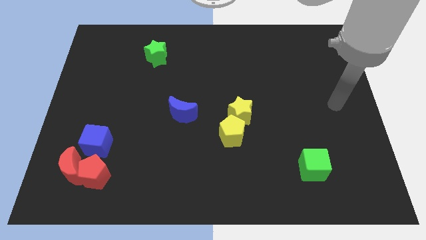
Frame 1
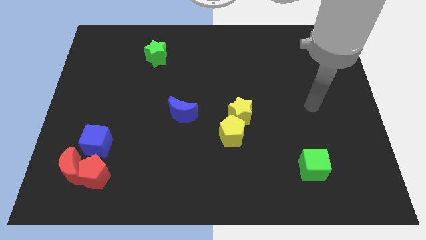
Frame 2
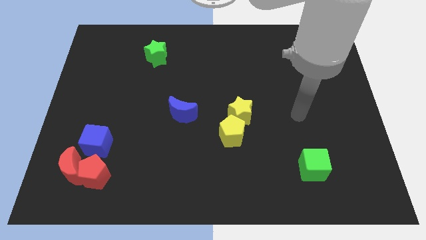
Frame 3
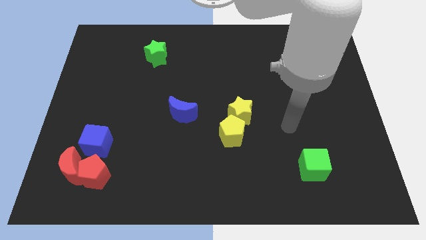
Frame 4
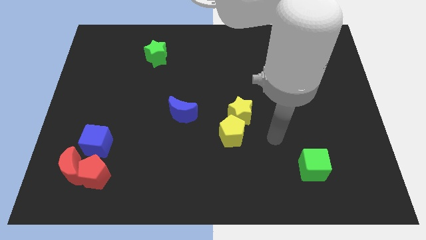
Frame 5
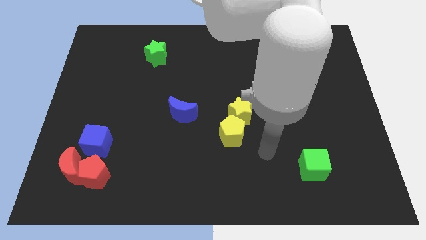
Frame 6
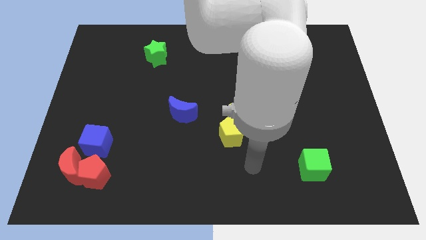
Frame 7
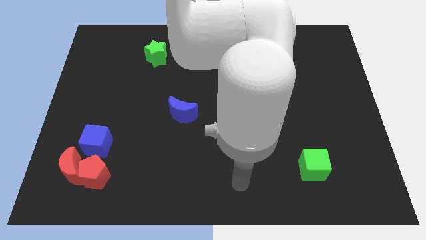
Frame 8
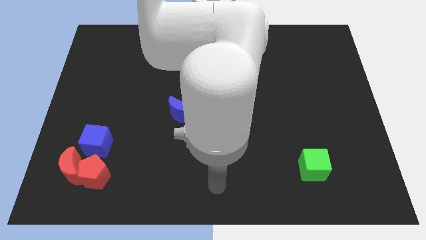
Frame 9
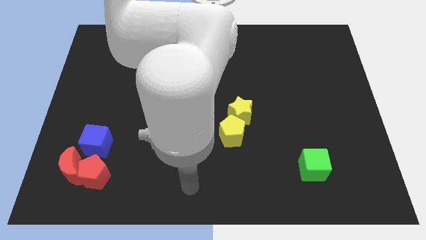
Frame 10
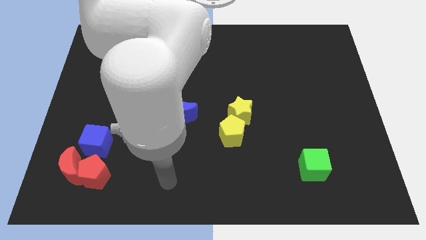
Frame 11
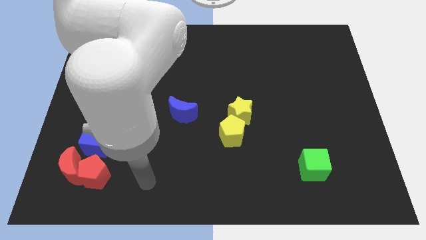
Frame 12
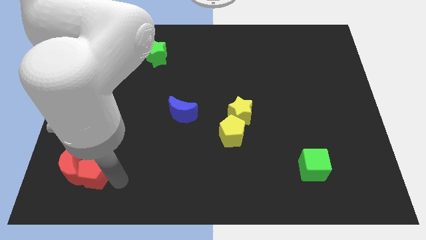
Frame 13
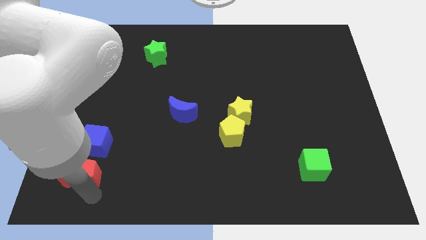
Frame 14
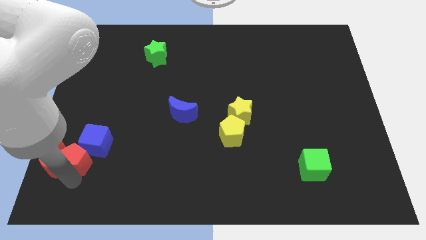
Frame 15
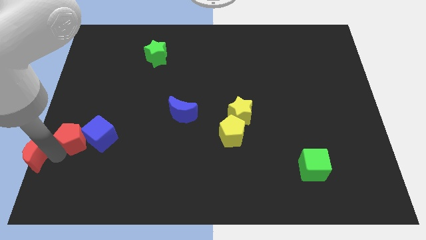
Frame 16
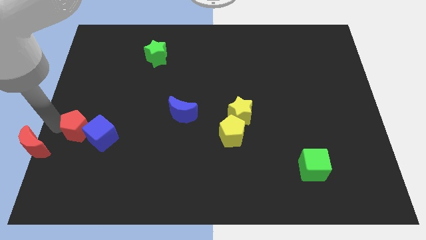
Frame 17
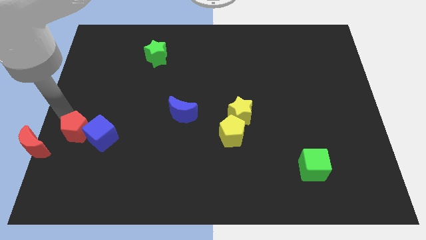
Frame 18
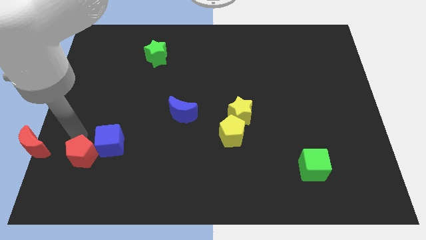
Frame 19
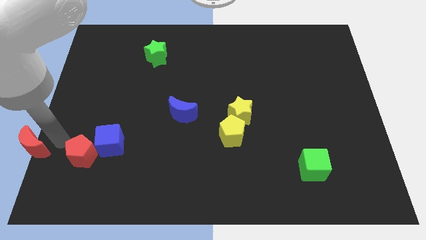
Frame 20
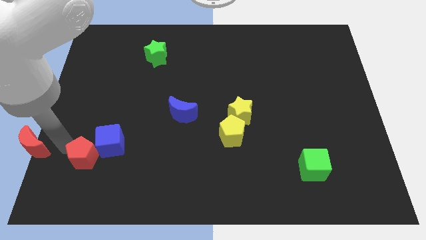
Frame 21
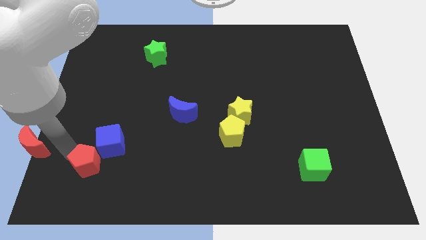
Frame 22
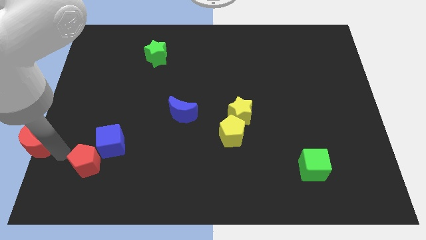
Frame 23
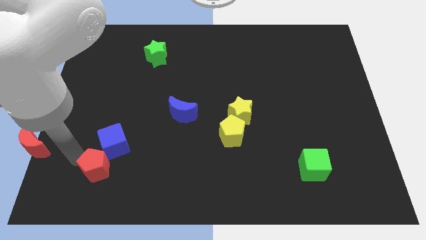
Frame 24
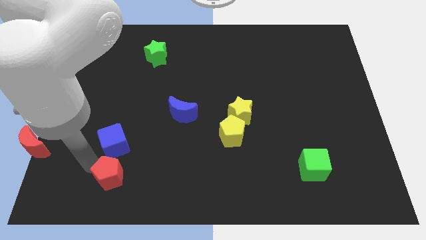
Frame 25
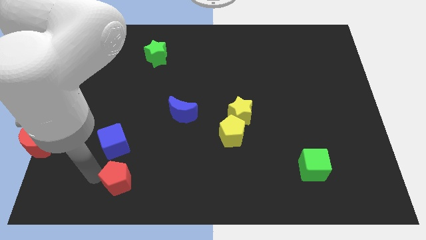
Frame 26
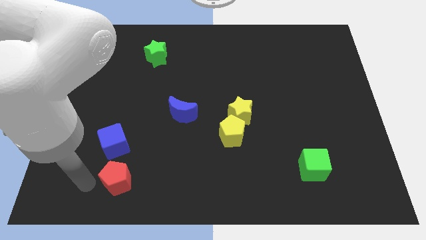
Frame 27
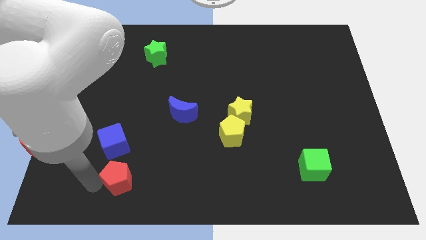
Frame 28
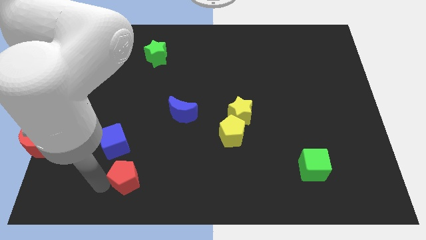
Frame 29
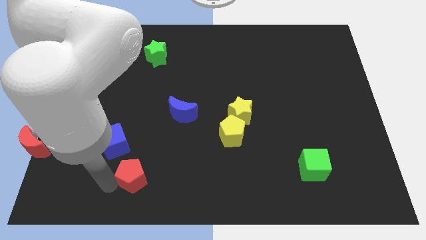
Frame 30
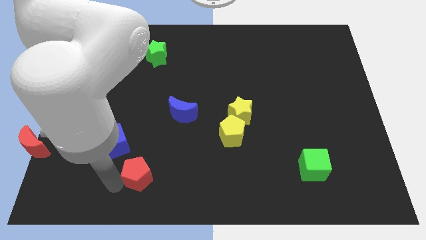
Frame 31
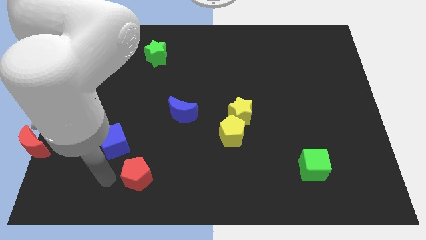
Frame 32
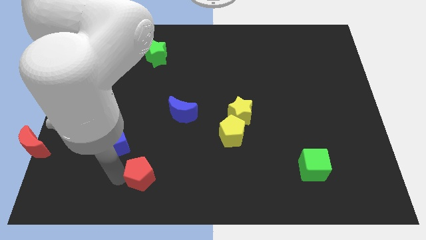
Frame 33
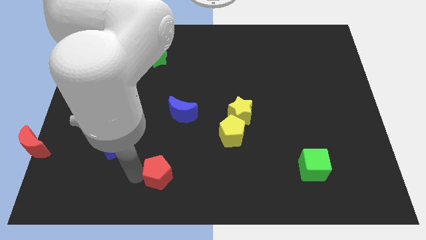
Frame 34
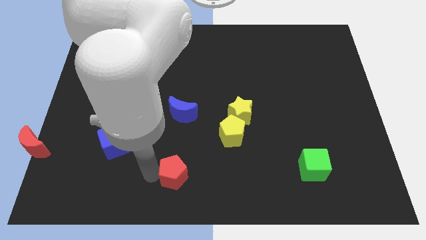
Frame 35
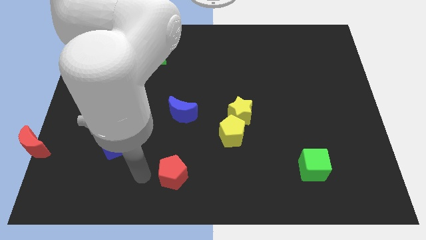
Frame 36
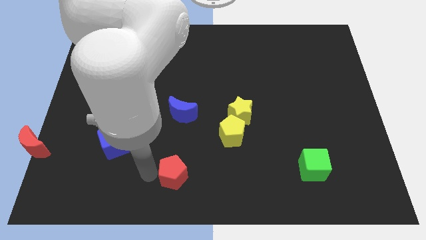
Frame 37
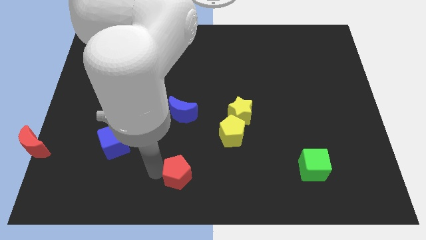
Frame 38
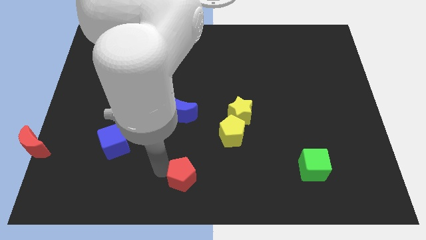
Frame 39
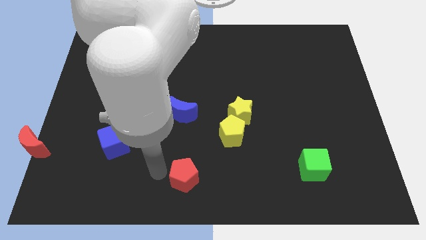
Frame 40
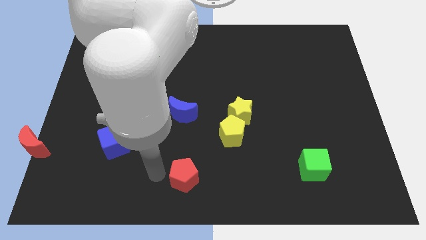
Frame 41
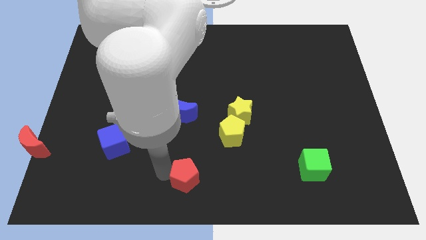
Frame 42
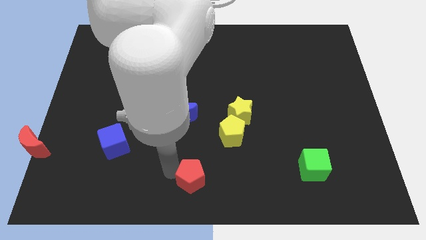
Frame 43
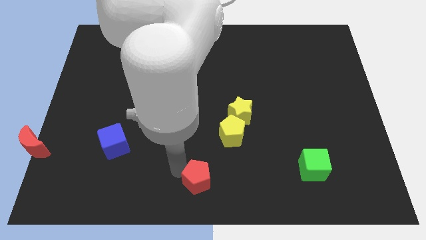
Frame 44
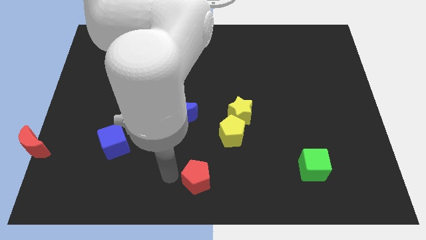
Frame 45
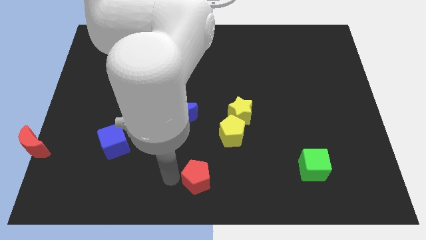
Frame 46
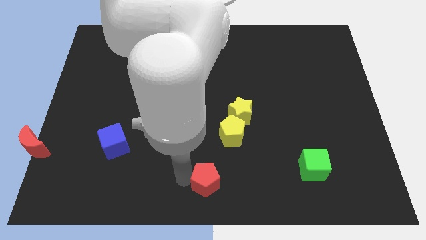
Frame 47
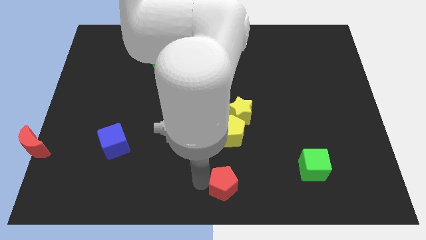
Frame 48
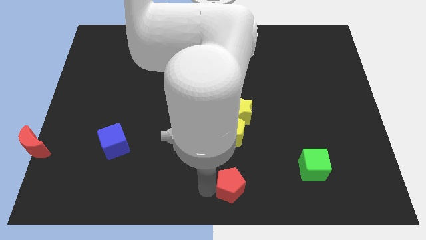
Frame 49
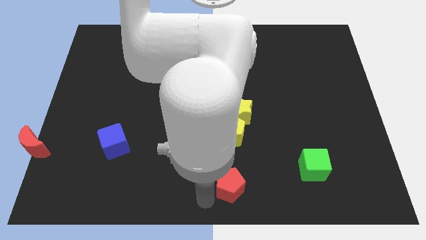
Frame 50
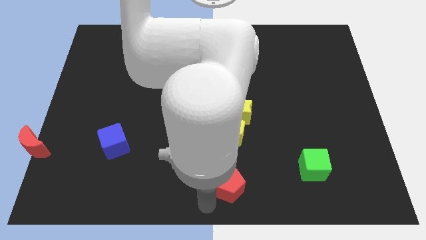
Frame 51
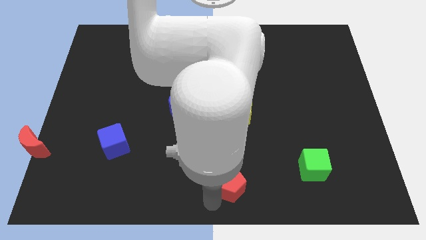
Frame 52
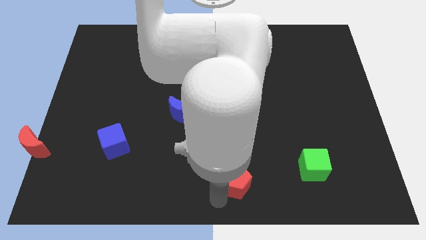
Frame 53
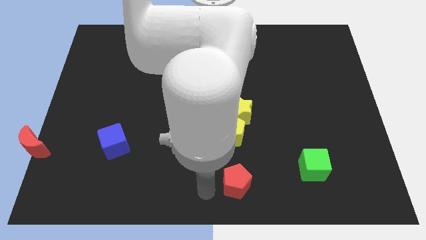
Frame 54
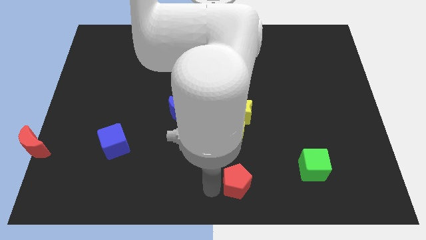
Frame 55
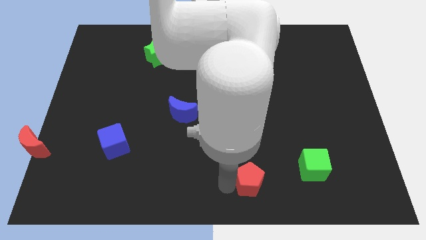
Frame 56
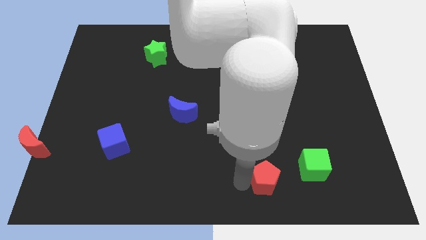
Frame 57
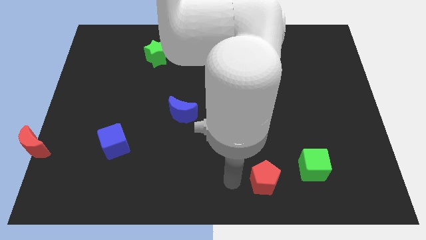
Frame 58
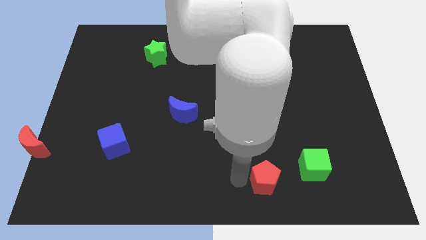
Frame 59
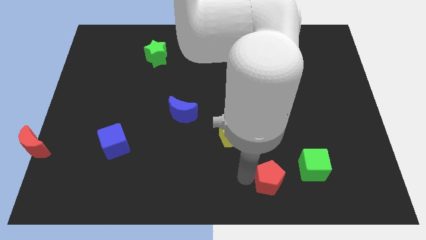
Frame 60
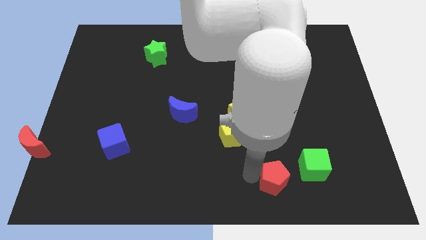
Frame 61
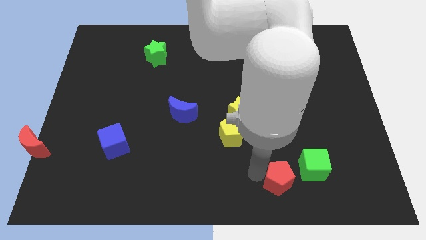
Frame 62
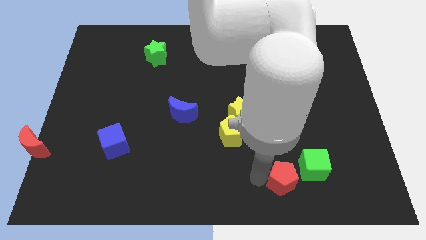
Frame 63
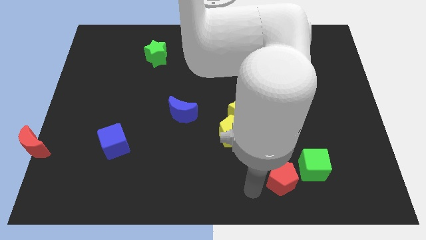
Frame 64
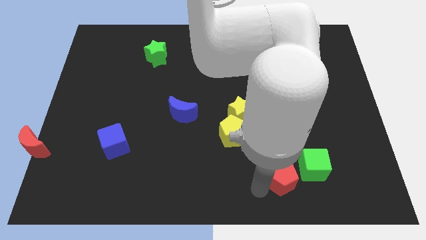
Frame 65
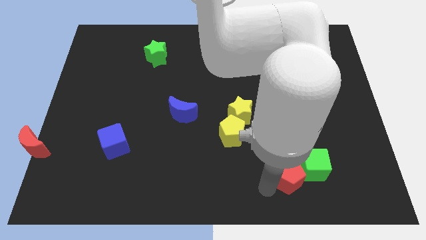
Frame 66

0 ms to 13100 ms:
push the red pentagon towards the green cube

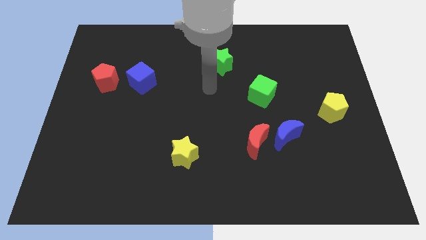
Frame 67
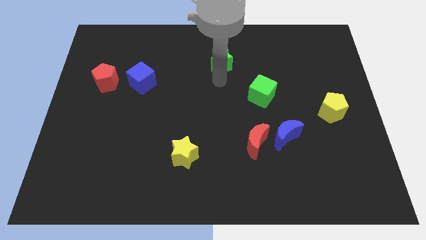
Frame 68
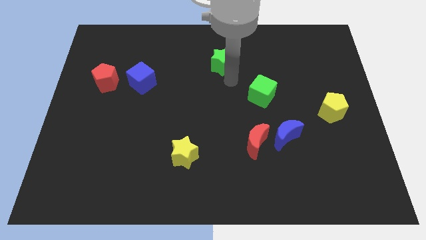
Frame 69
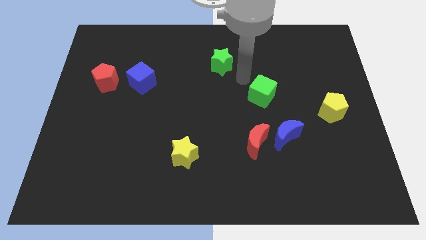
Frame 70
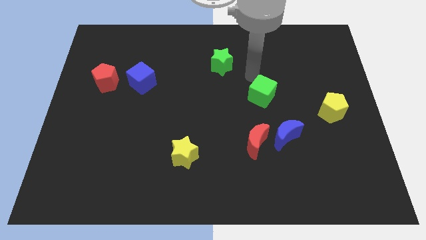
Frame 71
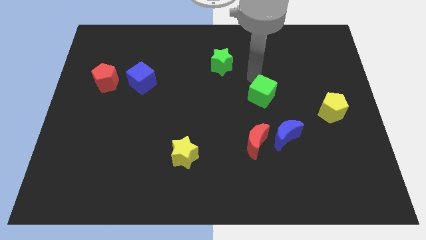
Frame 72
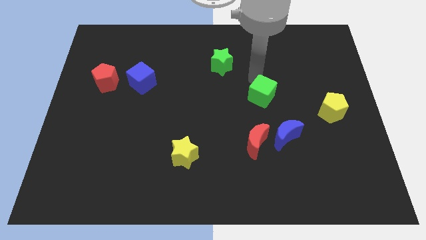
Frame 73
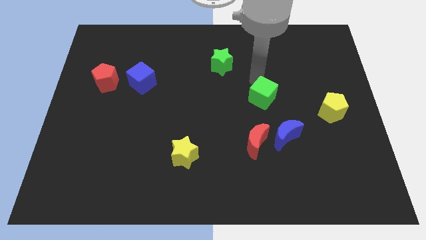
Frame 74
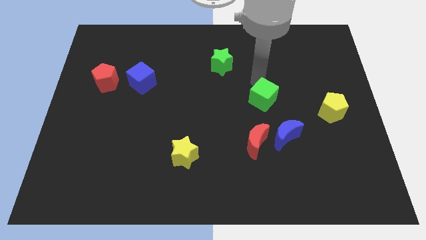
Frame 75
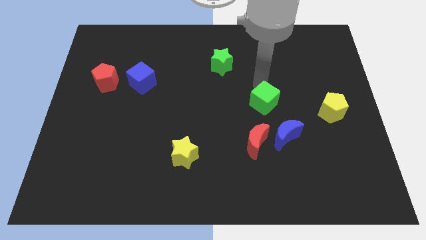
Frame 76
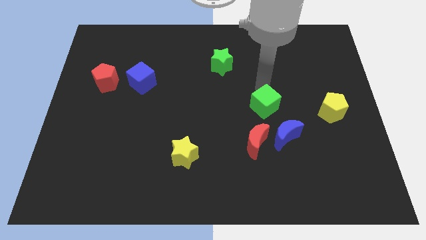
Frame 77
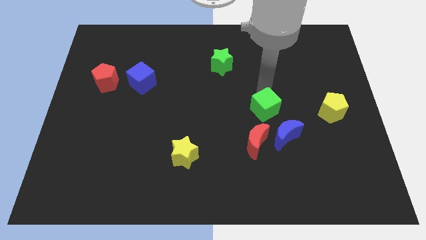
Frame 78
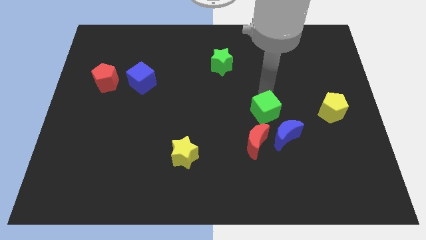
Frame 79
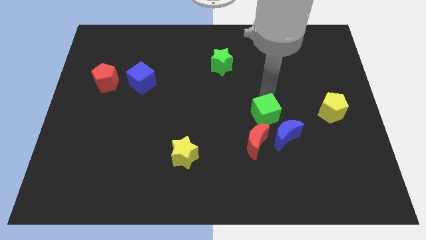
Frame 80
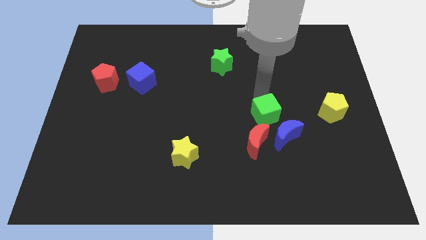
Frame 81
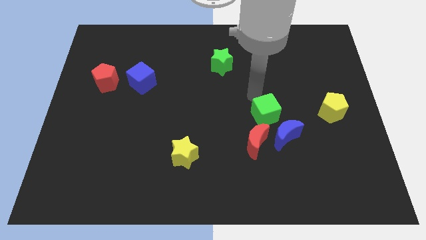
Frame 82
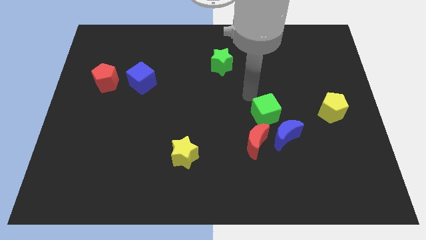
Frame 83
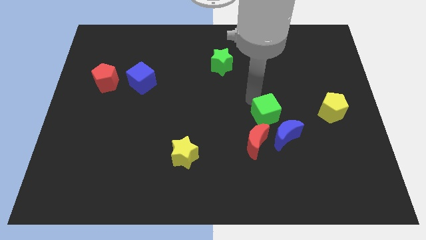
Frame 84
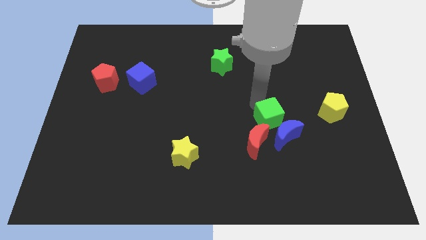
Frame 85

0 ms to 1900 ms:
push the green cube towards the blue moon
